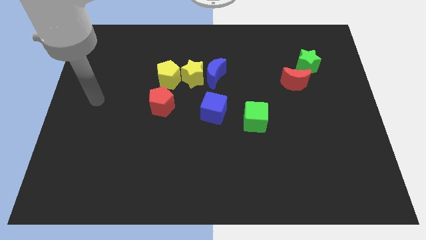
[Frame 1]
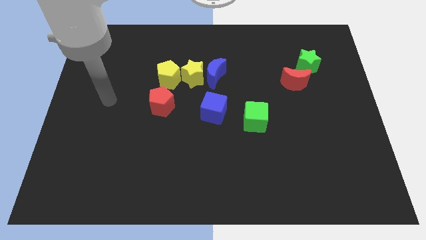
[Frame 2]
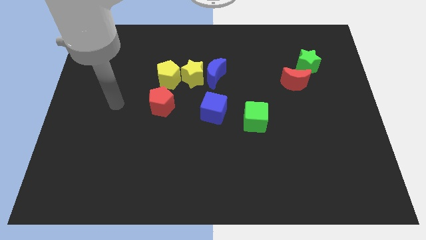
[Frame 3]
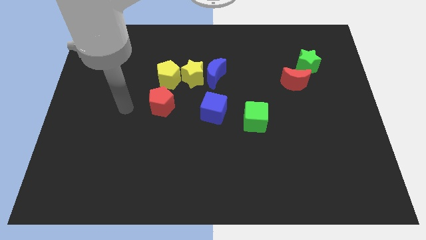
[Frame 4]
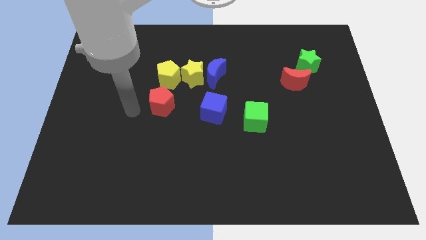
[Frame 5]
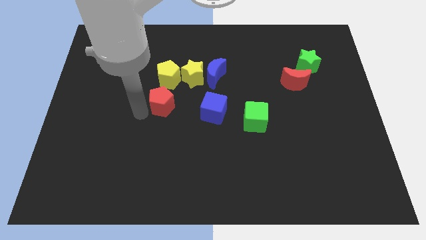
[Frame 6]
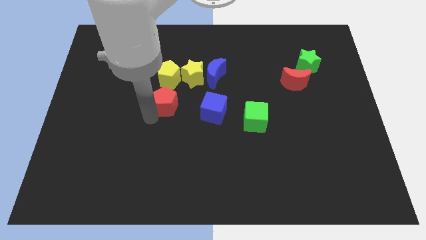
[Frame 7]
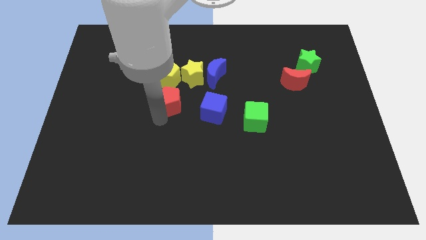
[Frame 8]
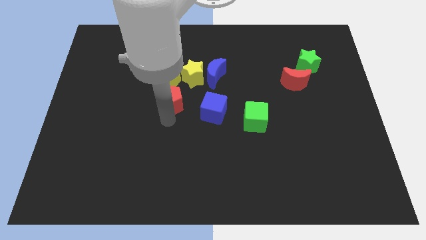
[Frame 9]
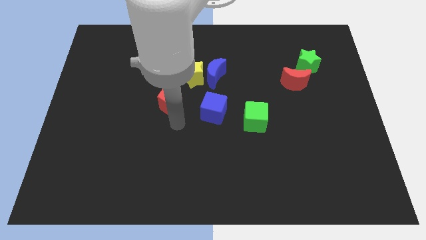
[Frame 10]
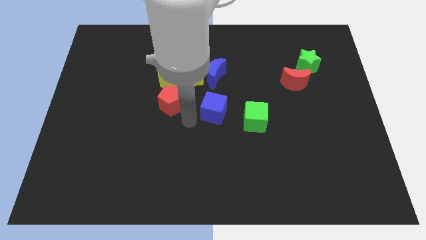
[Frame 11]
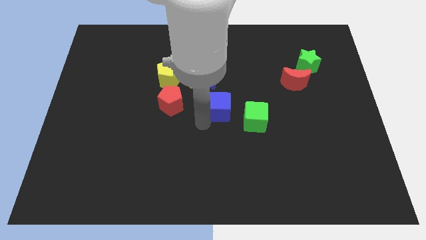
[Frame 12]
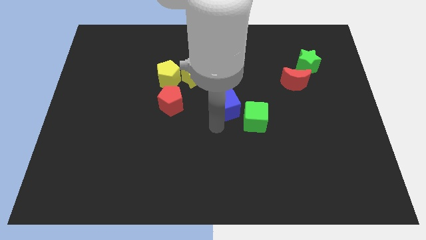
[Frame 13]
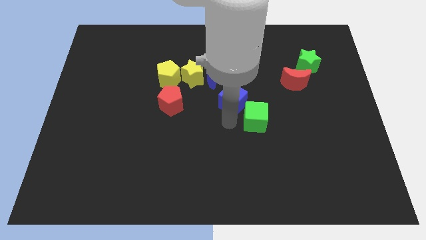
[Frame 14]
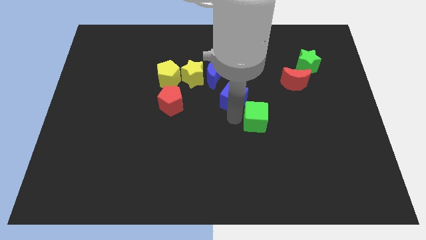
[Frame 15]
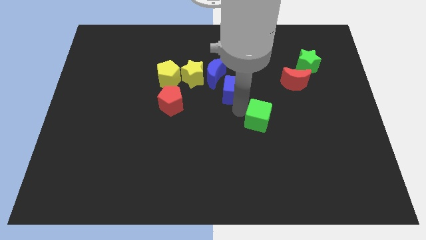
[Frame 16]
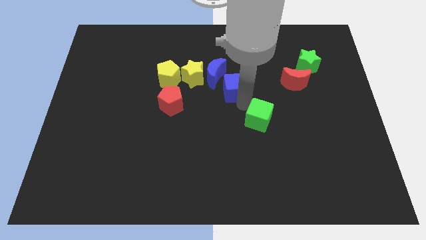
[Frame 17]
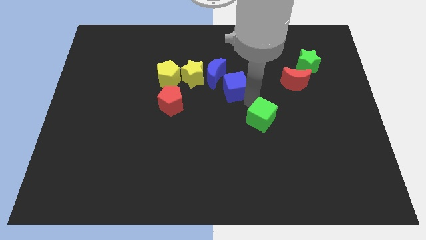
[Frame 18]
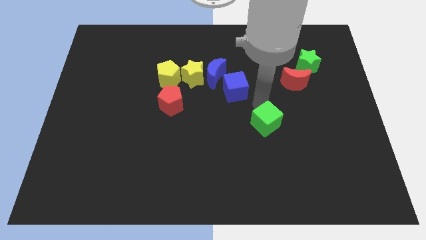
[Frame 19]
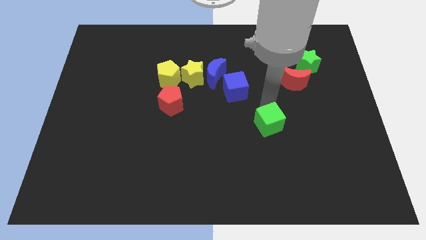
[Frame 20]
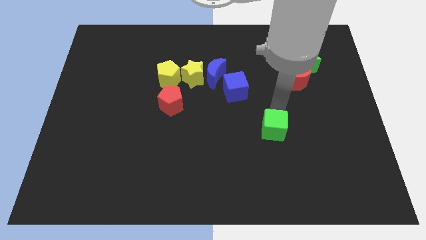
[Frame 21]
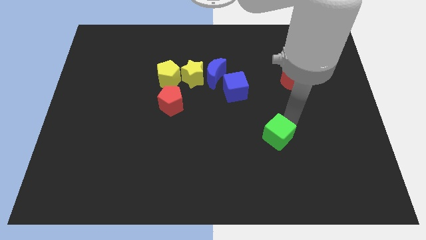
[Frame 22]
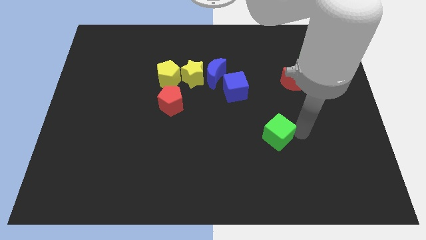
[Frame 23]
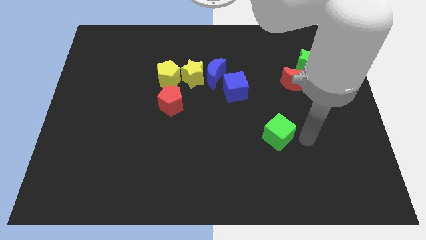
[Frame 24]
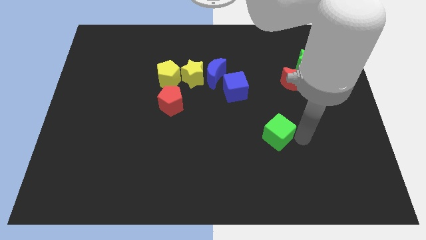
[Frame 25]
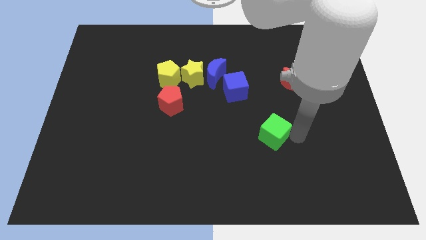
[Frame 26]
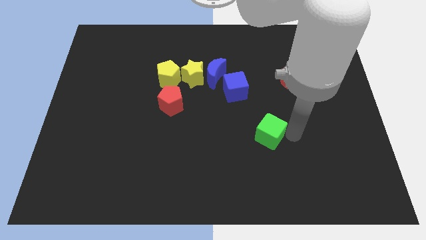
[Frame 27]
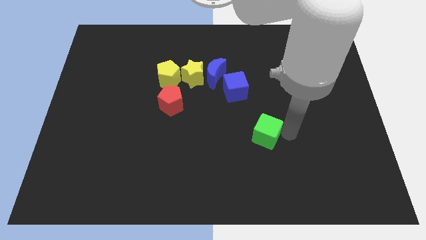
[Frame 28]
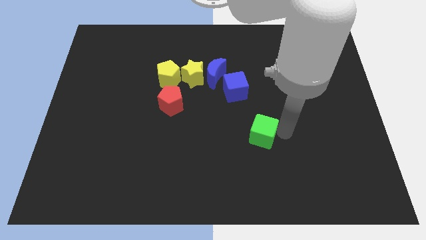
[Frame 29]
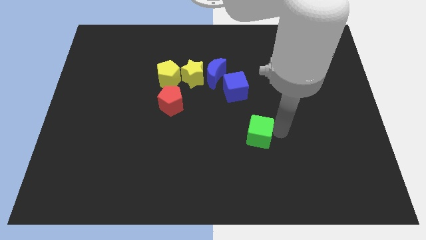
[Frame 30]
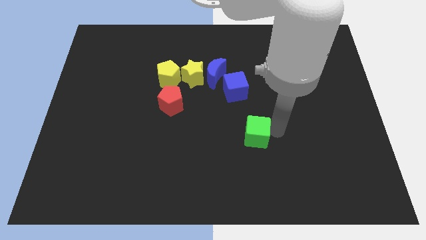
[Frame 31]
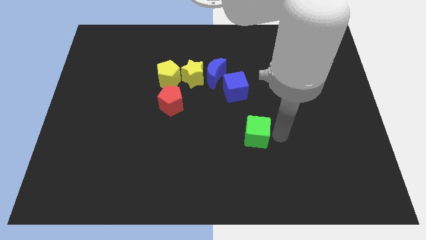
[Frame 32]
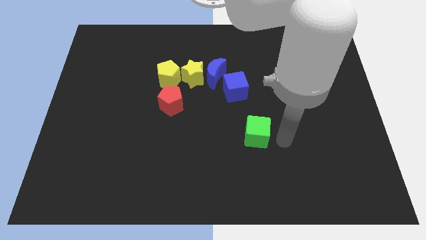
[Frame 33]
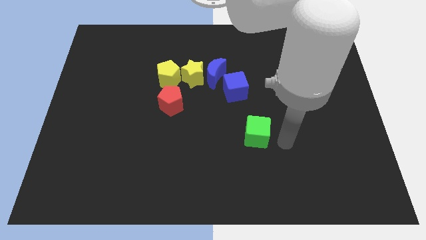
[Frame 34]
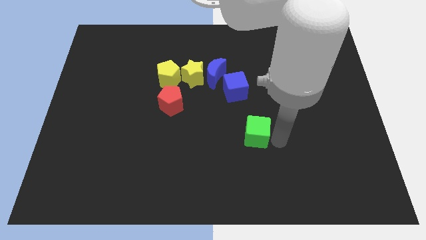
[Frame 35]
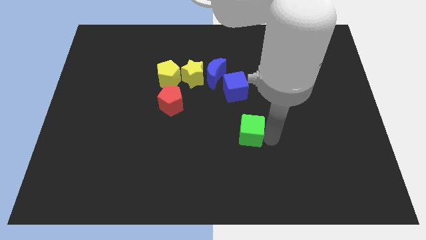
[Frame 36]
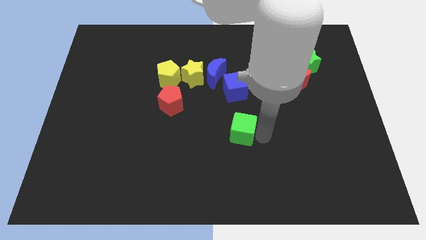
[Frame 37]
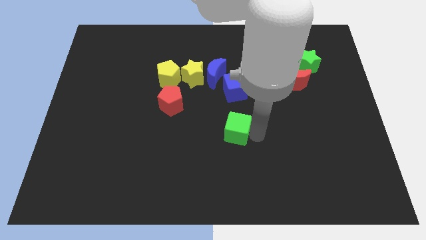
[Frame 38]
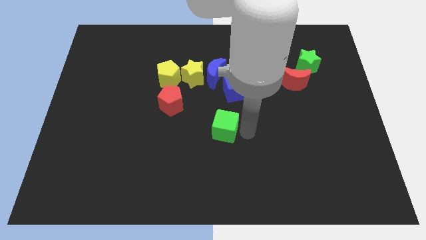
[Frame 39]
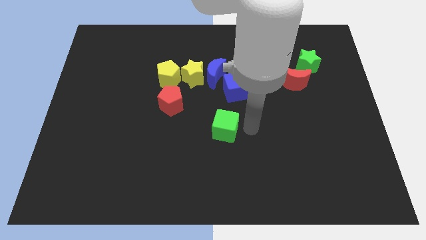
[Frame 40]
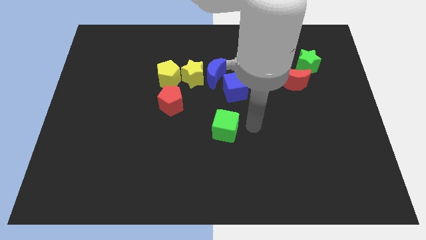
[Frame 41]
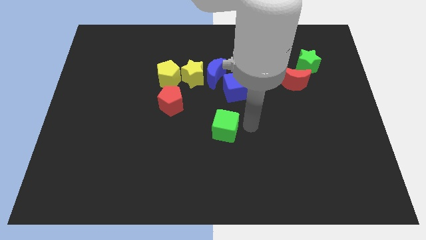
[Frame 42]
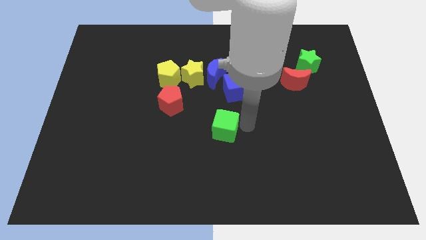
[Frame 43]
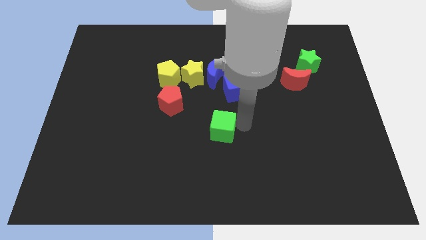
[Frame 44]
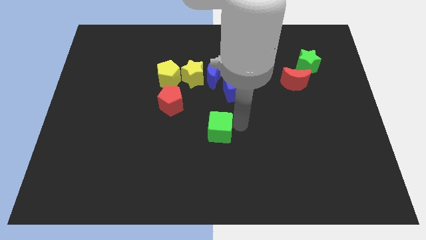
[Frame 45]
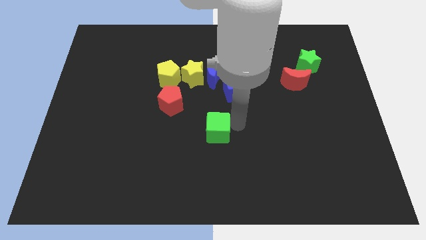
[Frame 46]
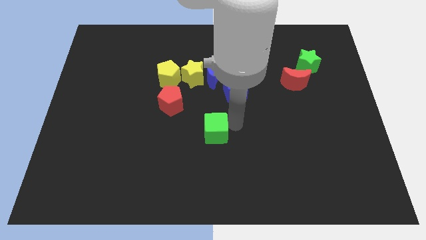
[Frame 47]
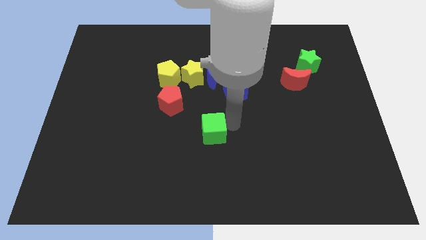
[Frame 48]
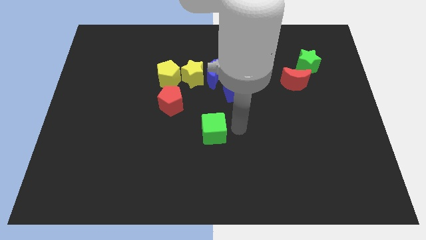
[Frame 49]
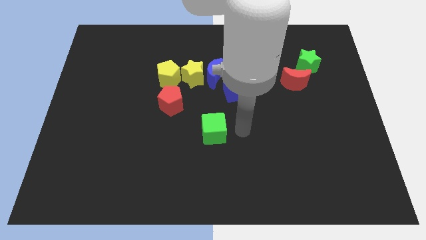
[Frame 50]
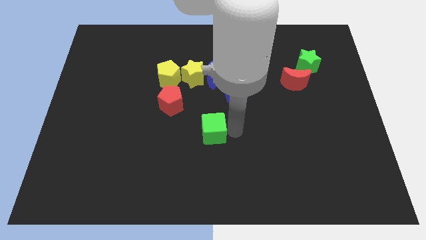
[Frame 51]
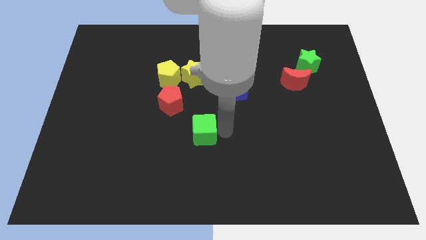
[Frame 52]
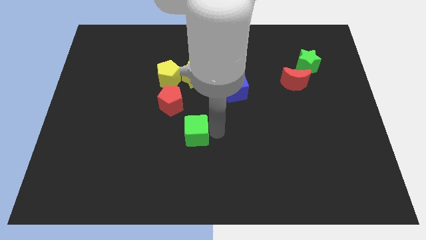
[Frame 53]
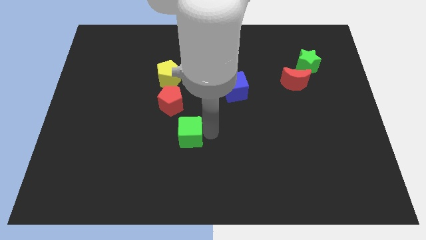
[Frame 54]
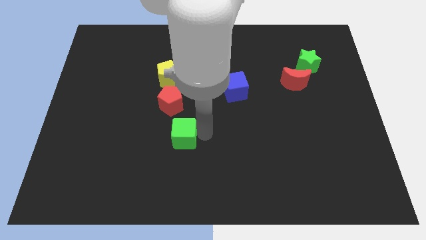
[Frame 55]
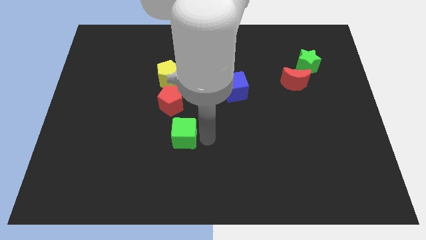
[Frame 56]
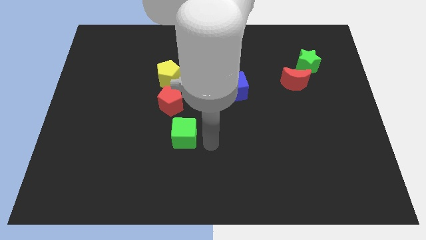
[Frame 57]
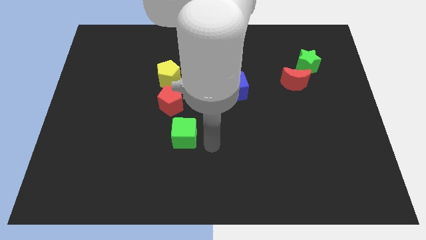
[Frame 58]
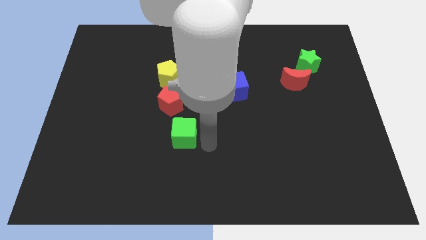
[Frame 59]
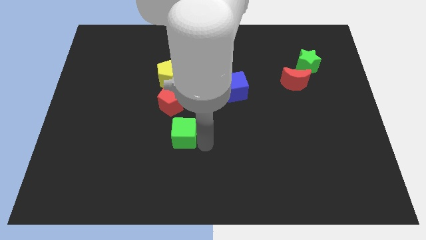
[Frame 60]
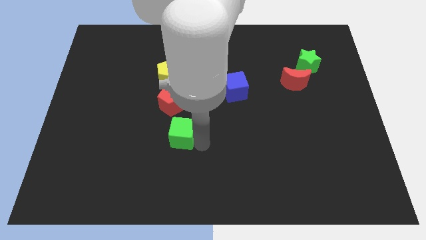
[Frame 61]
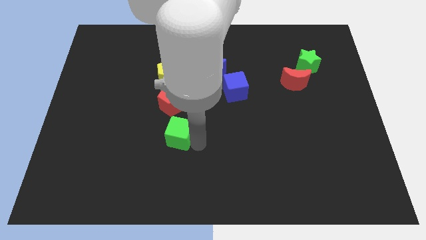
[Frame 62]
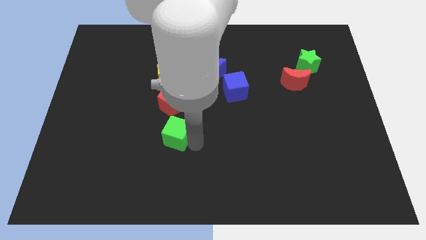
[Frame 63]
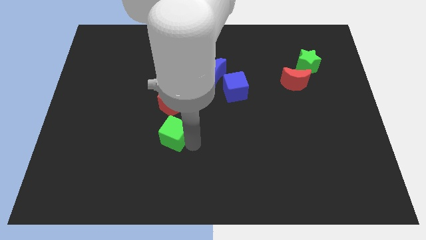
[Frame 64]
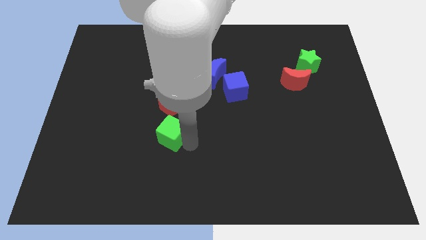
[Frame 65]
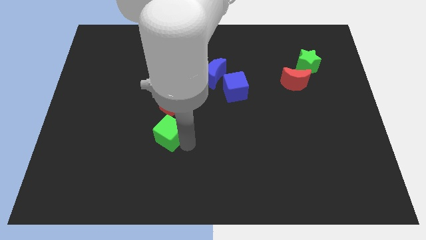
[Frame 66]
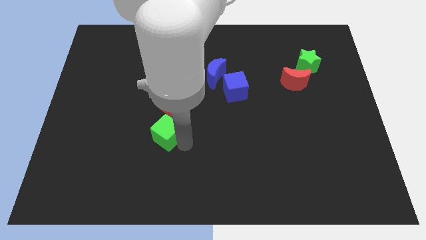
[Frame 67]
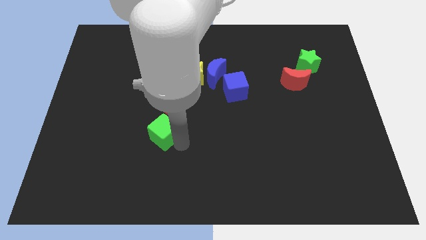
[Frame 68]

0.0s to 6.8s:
push the green cube to the left

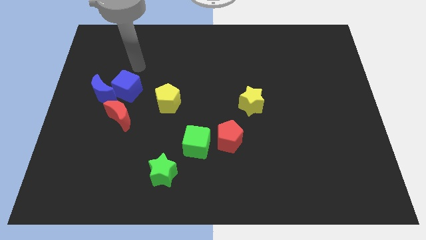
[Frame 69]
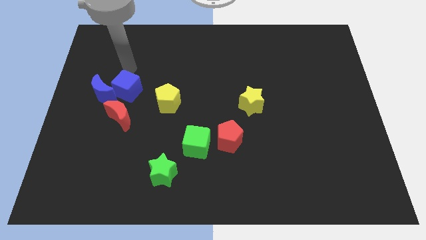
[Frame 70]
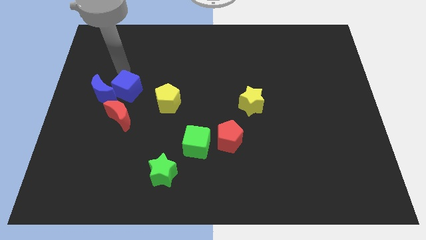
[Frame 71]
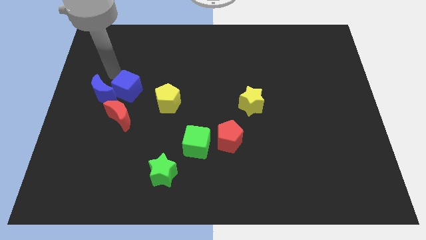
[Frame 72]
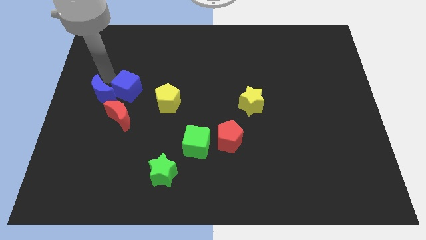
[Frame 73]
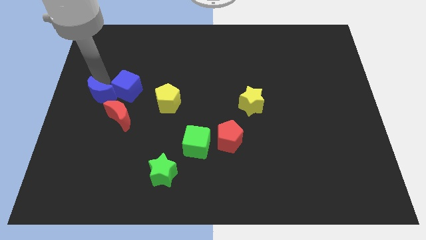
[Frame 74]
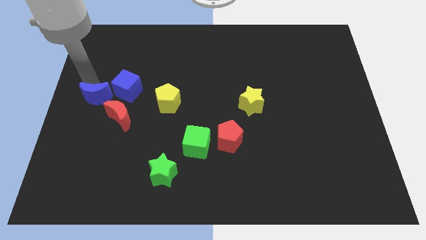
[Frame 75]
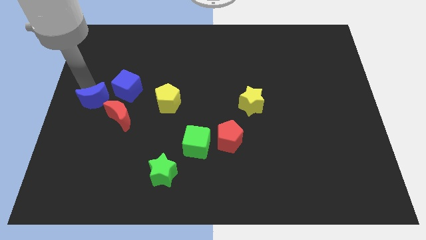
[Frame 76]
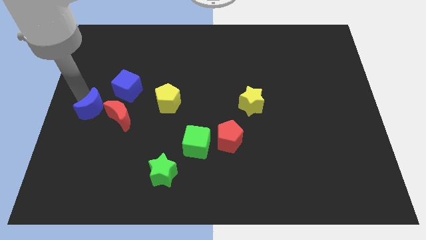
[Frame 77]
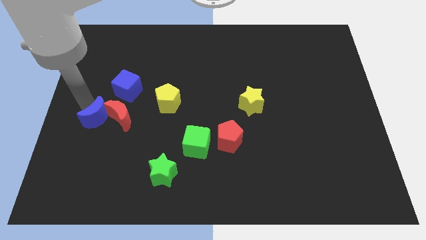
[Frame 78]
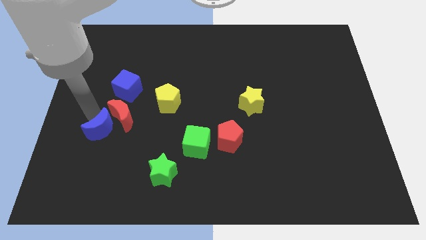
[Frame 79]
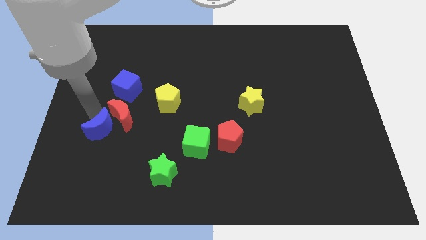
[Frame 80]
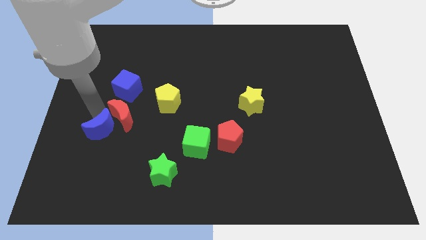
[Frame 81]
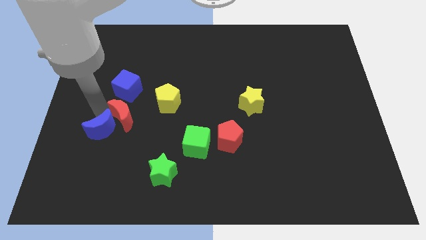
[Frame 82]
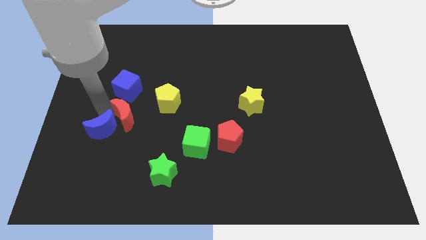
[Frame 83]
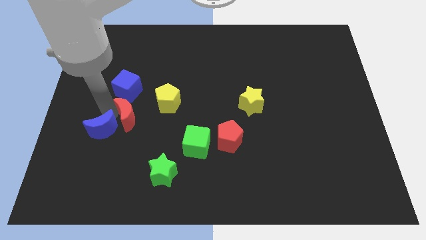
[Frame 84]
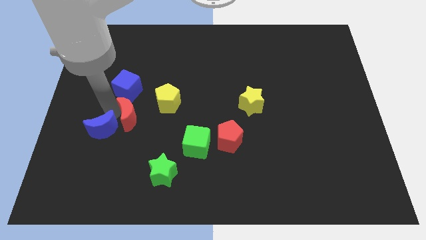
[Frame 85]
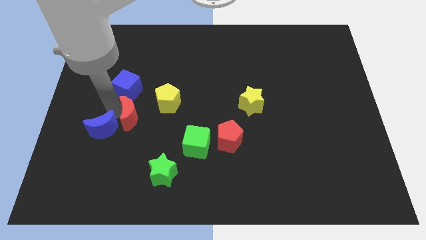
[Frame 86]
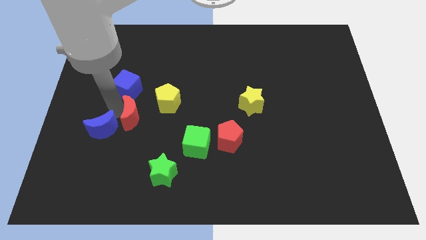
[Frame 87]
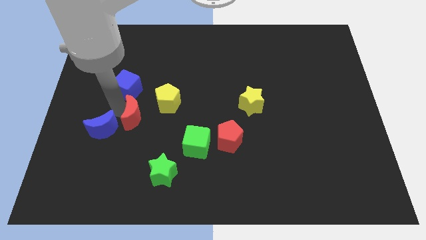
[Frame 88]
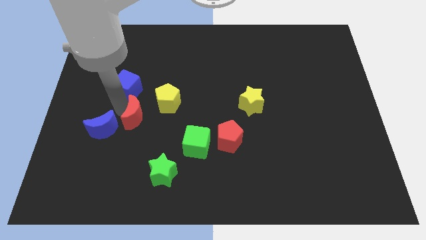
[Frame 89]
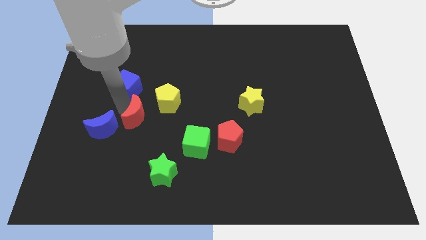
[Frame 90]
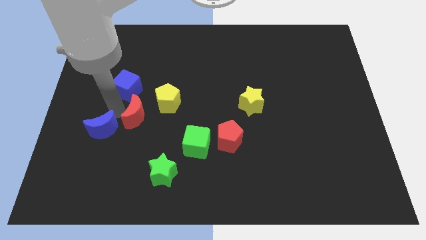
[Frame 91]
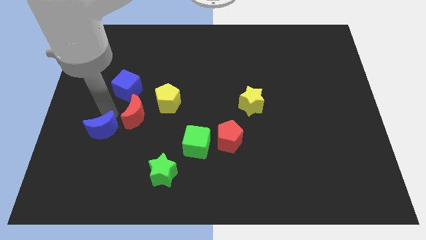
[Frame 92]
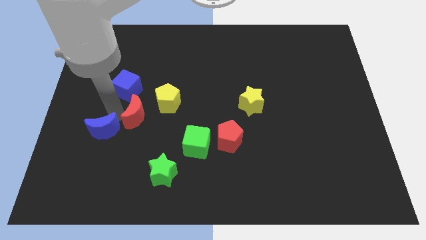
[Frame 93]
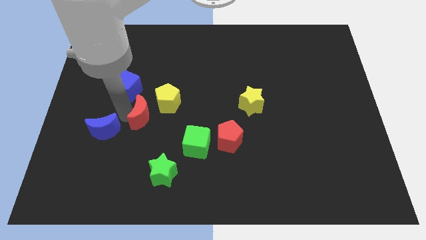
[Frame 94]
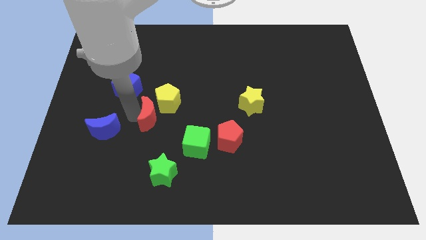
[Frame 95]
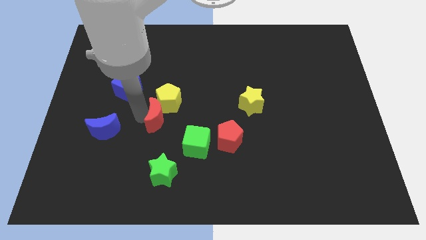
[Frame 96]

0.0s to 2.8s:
push the red moon to the right a little
